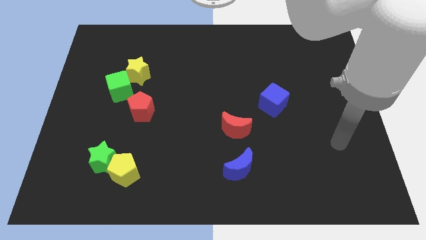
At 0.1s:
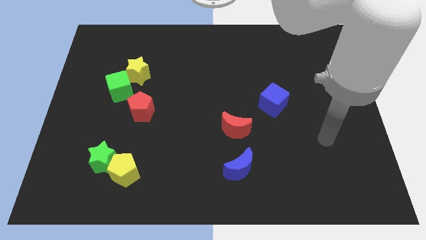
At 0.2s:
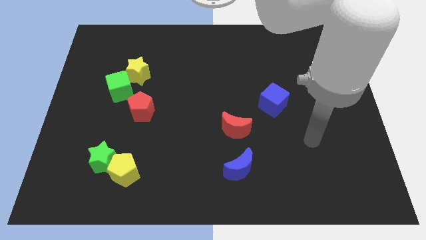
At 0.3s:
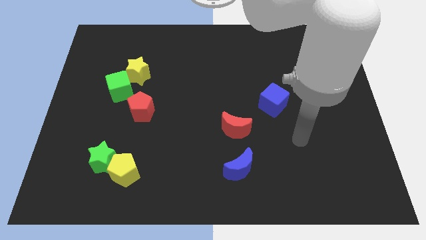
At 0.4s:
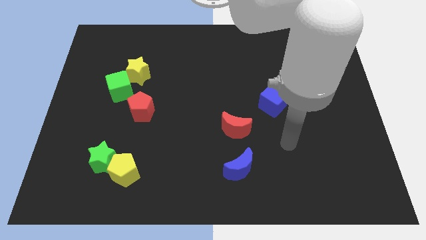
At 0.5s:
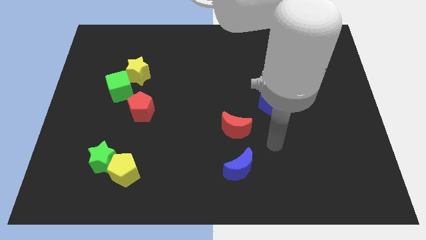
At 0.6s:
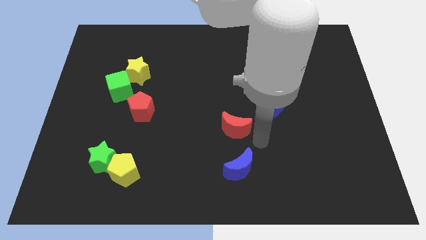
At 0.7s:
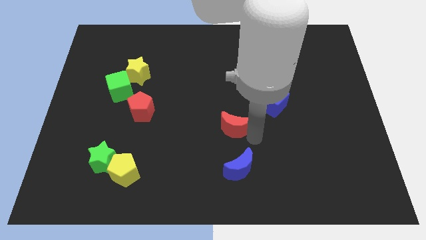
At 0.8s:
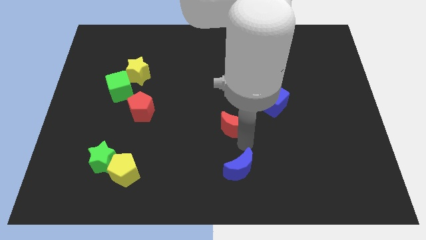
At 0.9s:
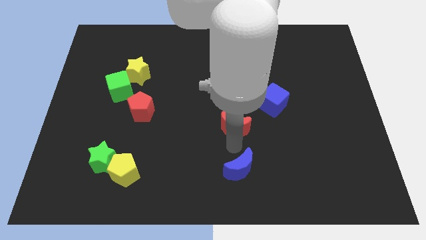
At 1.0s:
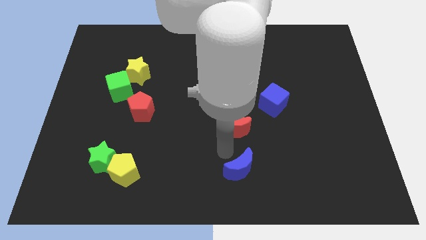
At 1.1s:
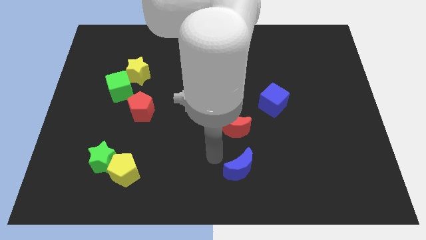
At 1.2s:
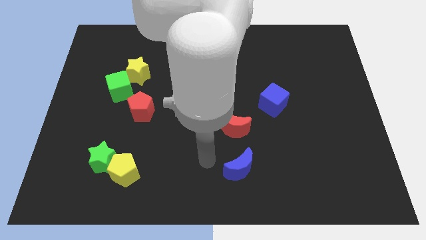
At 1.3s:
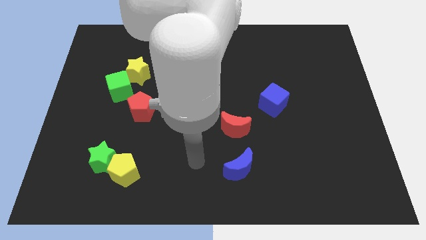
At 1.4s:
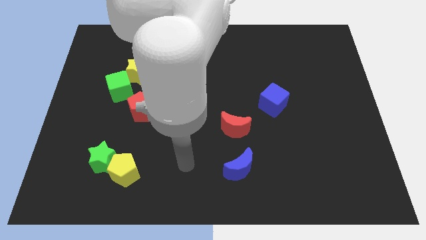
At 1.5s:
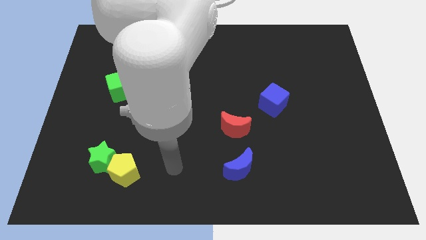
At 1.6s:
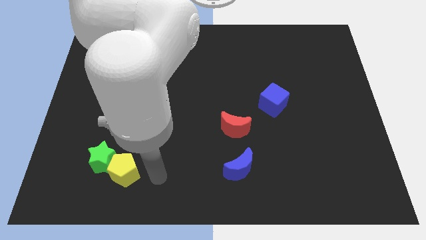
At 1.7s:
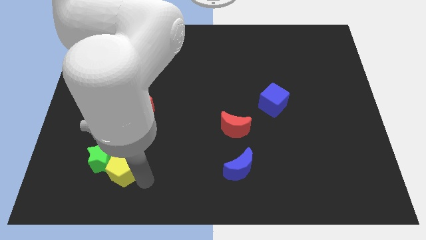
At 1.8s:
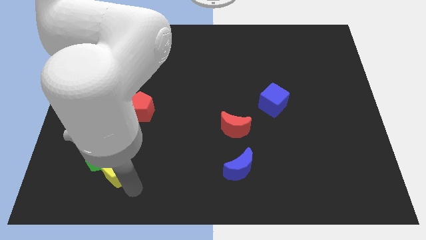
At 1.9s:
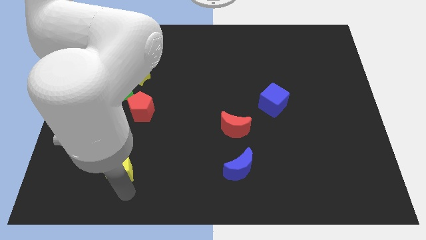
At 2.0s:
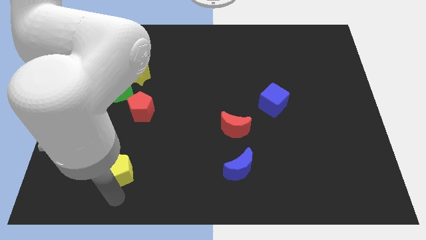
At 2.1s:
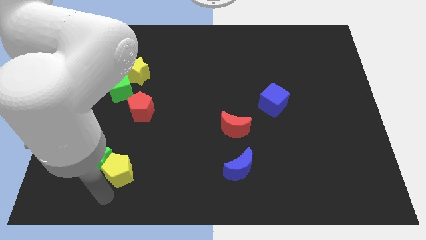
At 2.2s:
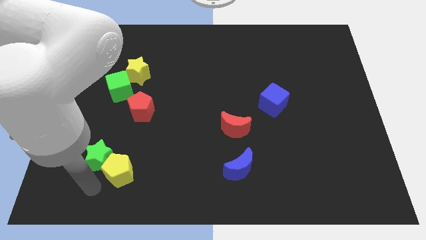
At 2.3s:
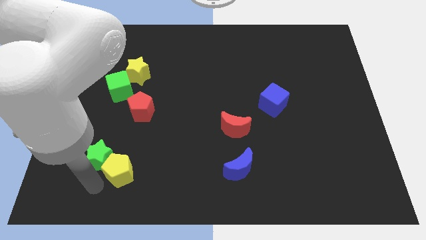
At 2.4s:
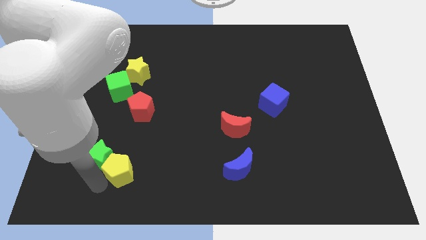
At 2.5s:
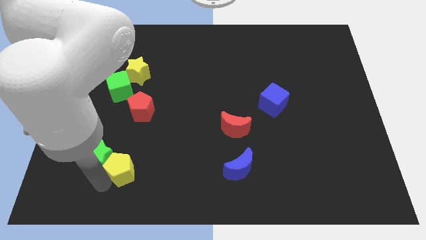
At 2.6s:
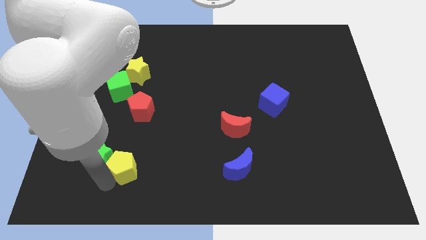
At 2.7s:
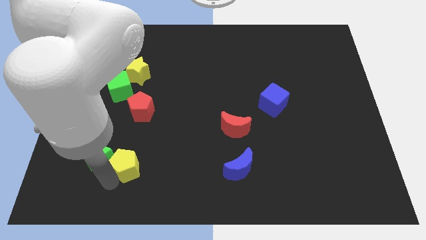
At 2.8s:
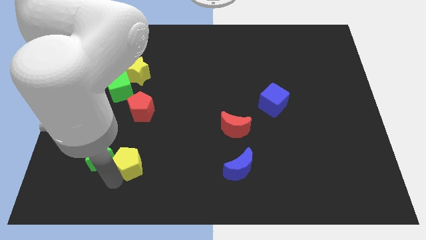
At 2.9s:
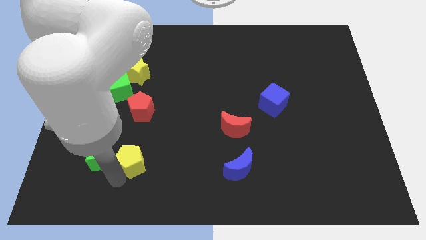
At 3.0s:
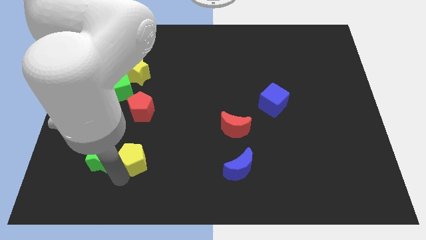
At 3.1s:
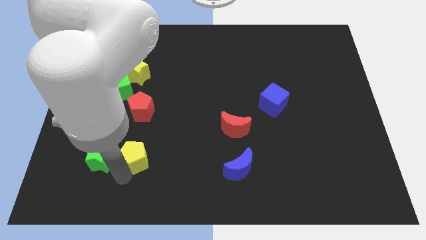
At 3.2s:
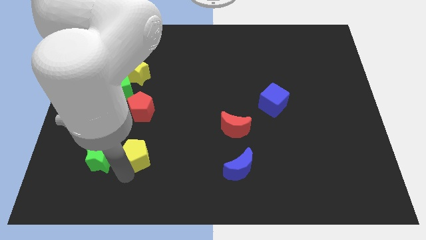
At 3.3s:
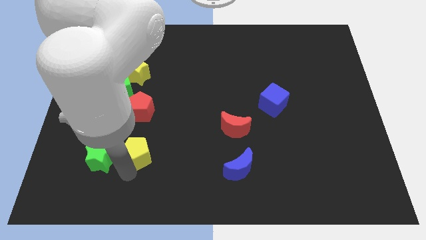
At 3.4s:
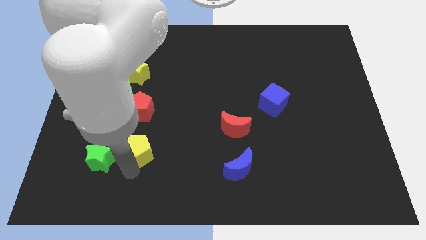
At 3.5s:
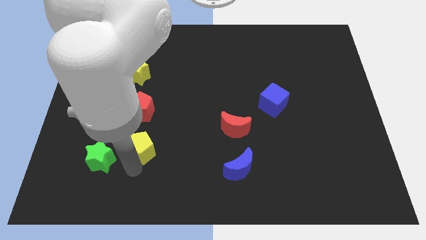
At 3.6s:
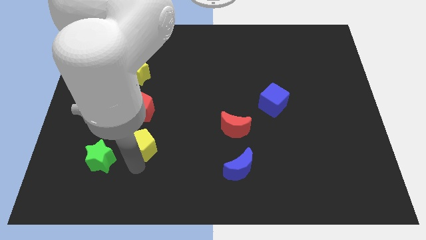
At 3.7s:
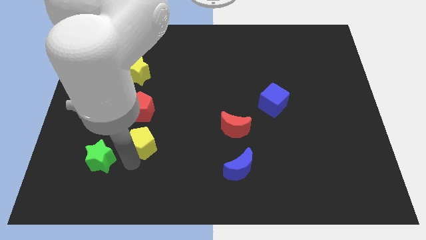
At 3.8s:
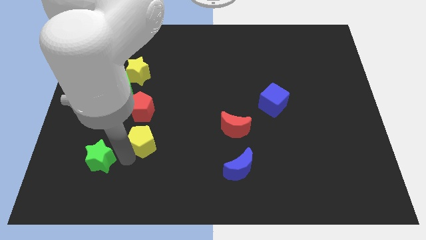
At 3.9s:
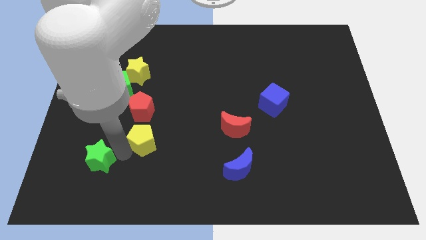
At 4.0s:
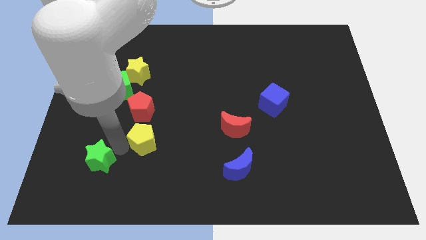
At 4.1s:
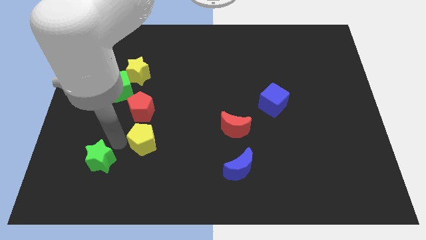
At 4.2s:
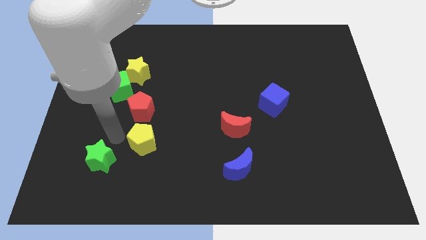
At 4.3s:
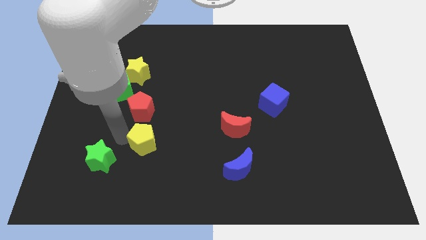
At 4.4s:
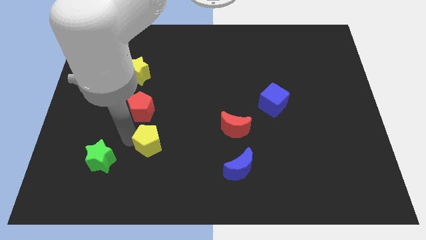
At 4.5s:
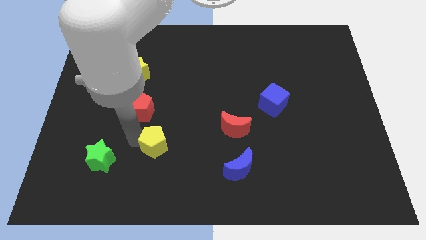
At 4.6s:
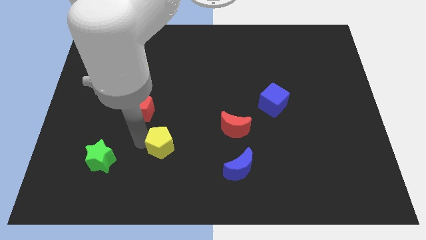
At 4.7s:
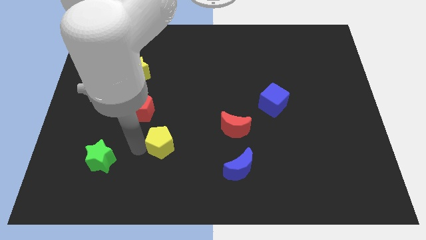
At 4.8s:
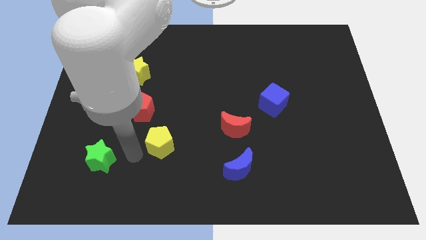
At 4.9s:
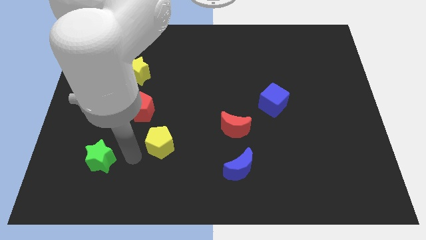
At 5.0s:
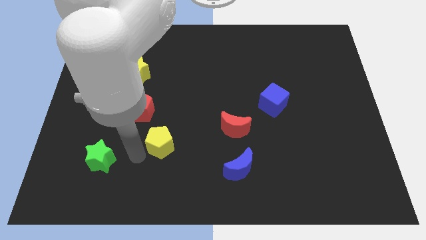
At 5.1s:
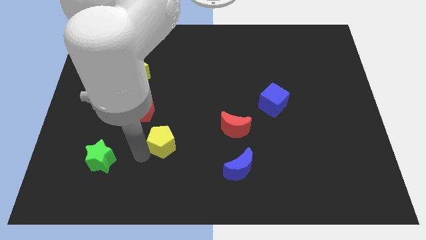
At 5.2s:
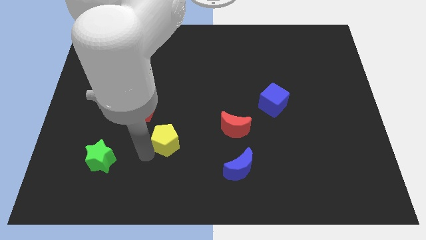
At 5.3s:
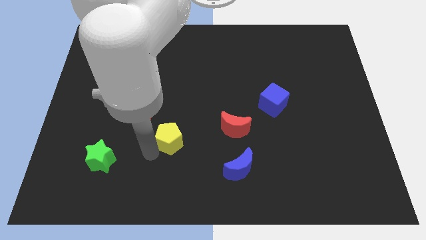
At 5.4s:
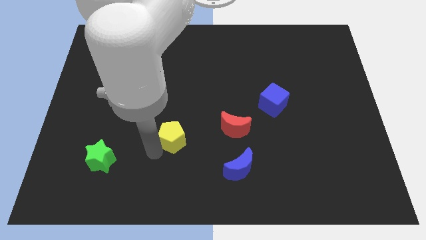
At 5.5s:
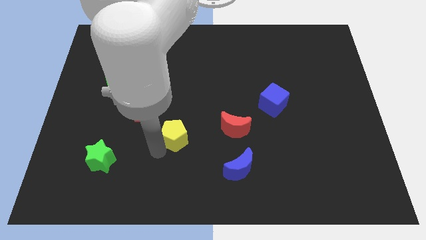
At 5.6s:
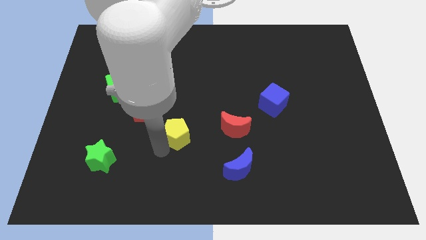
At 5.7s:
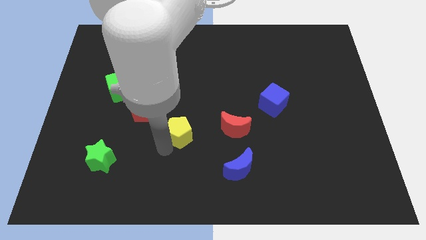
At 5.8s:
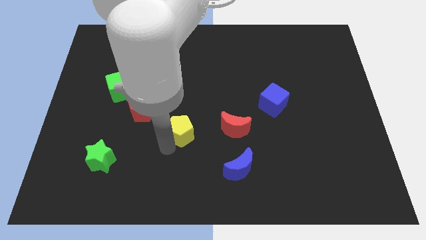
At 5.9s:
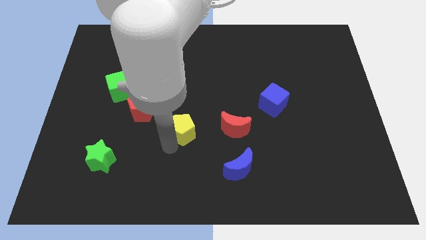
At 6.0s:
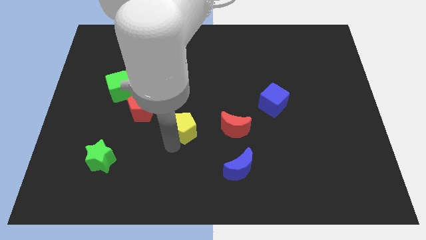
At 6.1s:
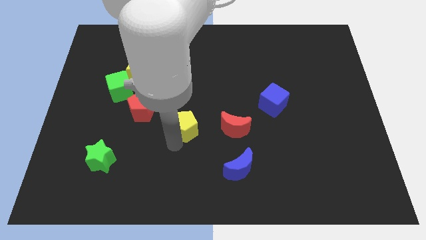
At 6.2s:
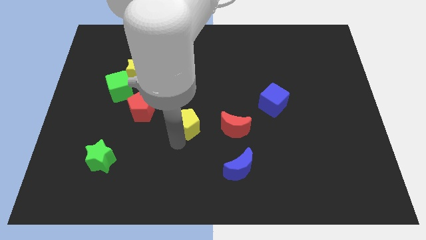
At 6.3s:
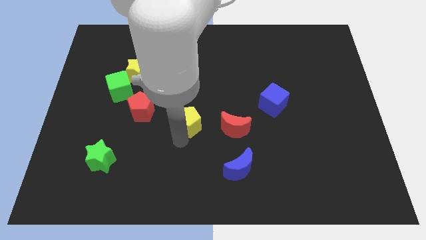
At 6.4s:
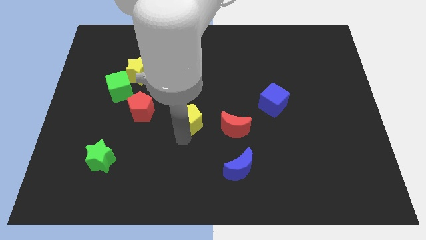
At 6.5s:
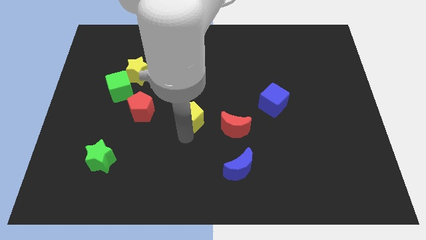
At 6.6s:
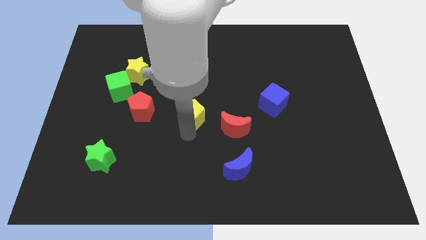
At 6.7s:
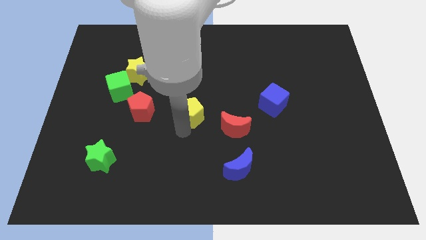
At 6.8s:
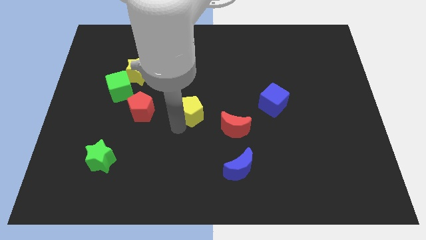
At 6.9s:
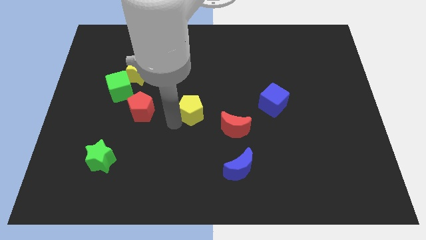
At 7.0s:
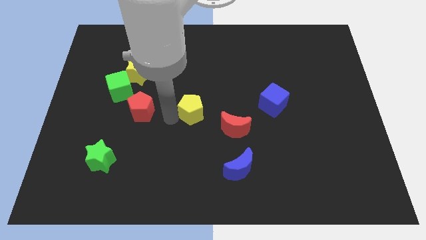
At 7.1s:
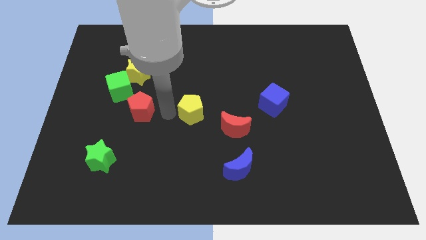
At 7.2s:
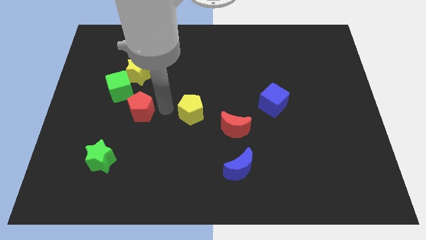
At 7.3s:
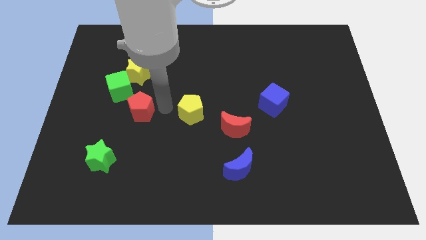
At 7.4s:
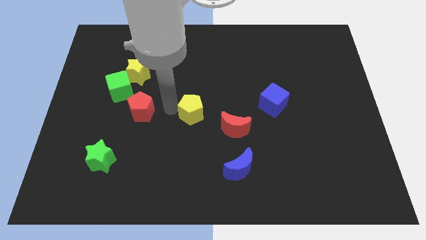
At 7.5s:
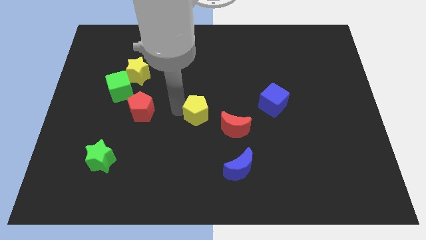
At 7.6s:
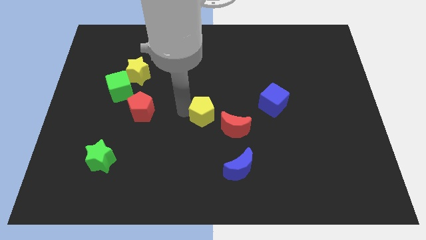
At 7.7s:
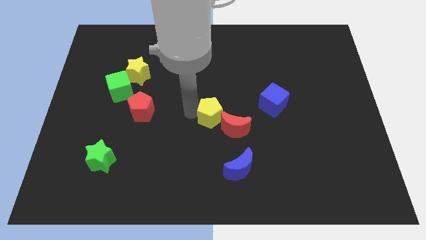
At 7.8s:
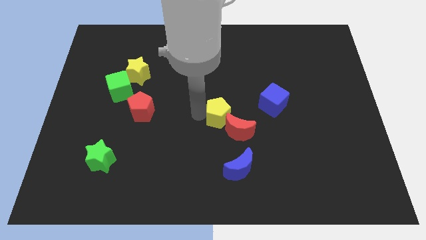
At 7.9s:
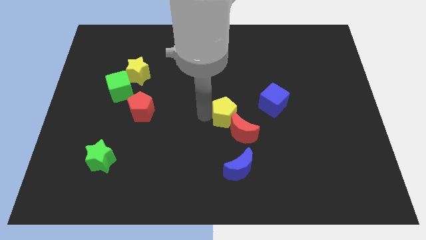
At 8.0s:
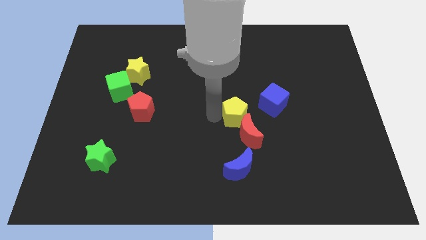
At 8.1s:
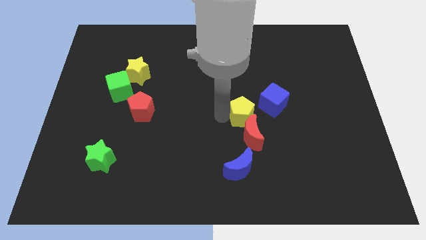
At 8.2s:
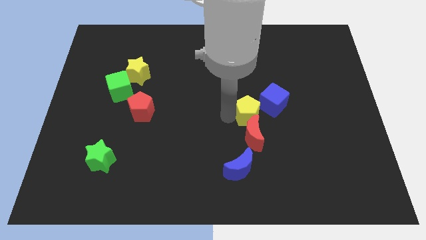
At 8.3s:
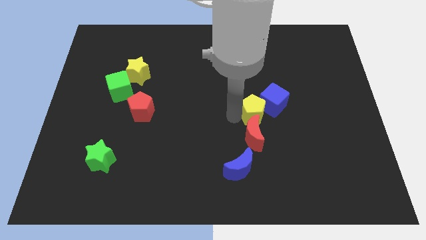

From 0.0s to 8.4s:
move the yellow pentagon close to the blue cube
